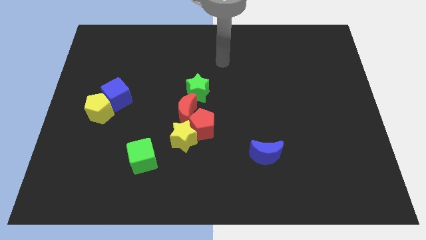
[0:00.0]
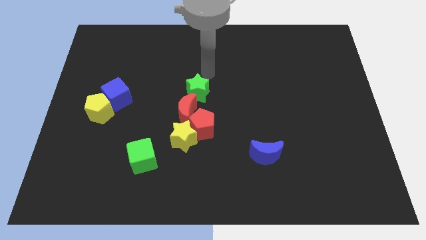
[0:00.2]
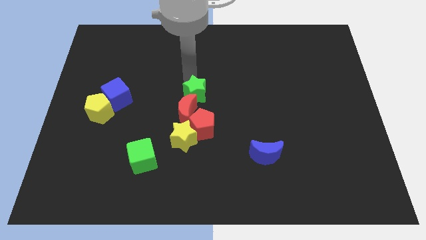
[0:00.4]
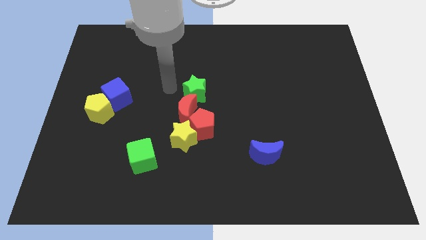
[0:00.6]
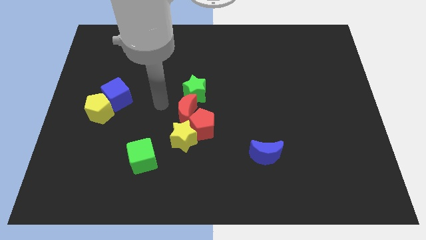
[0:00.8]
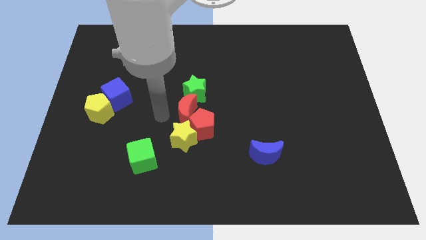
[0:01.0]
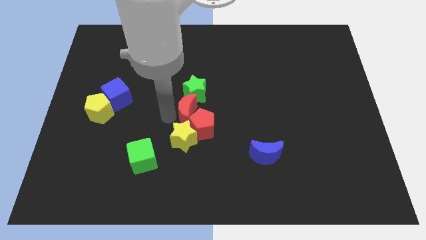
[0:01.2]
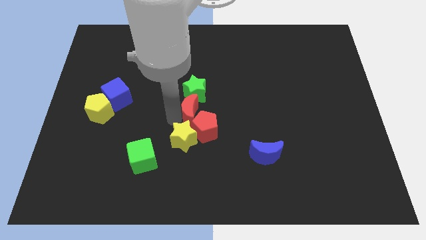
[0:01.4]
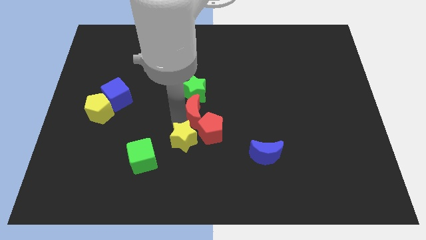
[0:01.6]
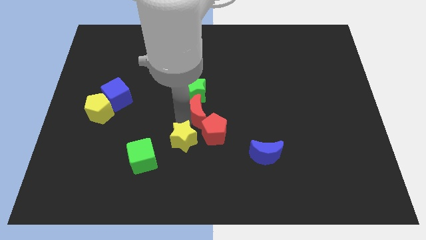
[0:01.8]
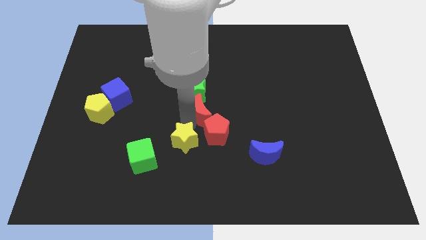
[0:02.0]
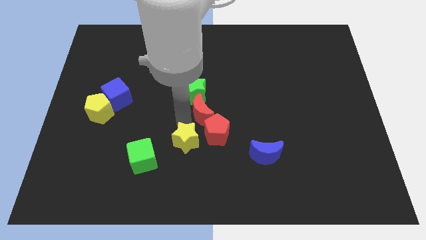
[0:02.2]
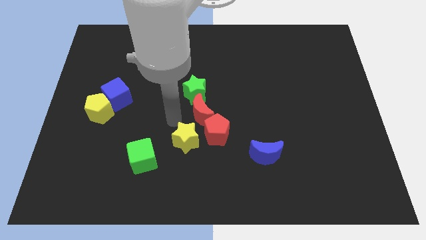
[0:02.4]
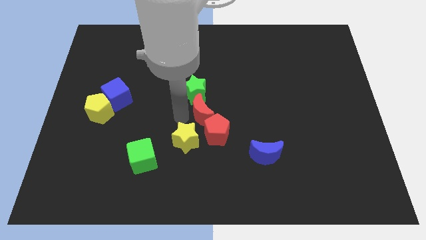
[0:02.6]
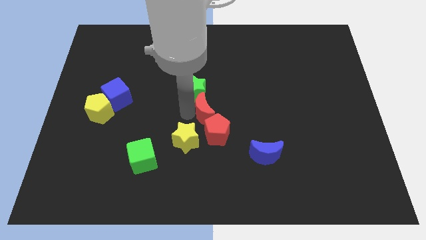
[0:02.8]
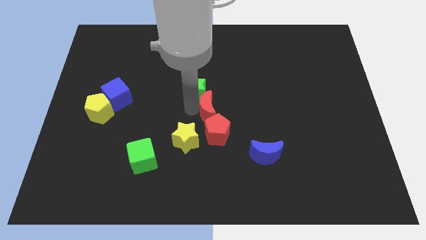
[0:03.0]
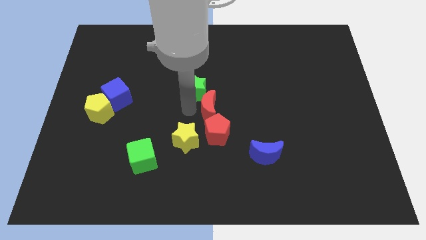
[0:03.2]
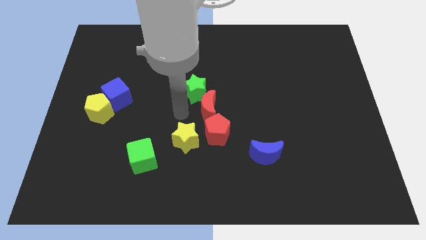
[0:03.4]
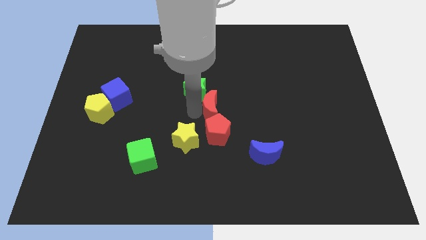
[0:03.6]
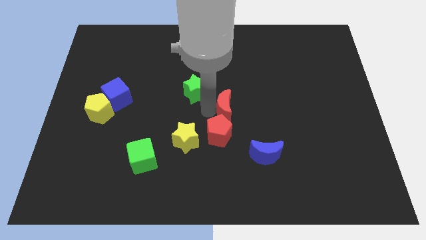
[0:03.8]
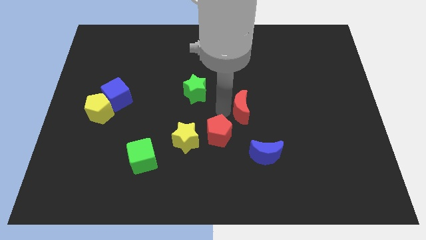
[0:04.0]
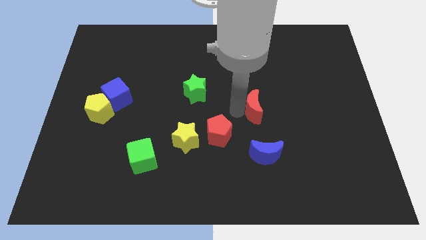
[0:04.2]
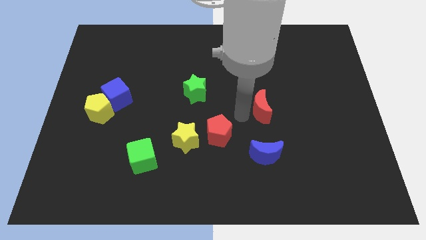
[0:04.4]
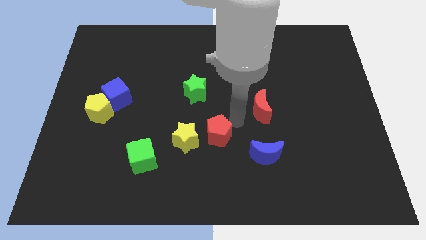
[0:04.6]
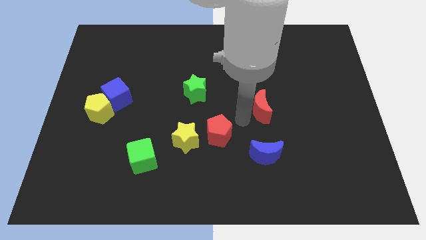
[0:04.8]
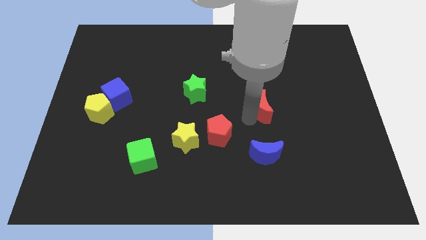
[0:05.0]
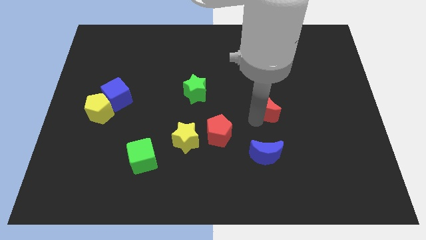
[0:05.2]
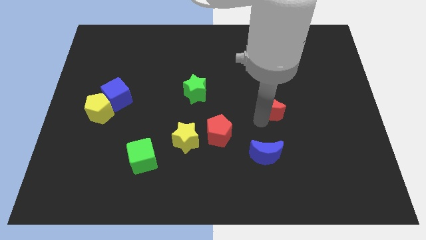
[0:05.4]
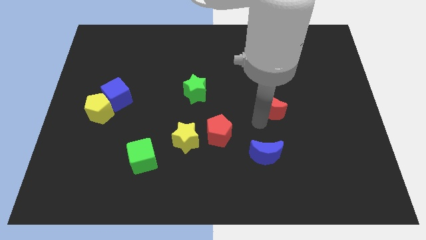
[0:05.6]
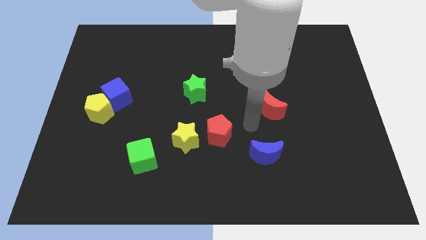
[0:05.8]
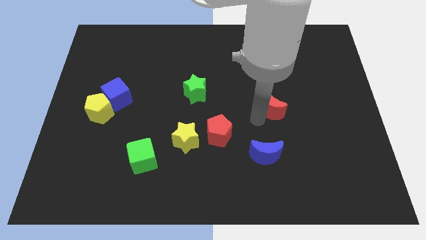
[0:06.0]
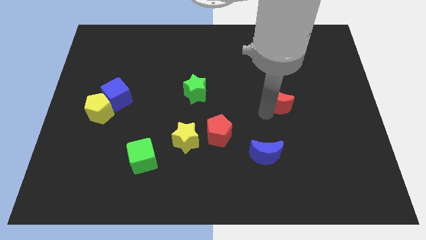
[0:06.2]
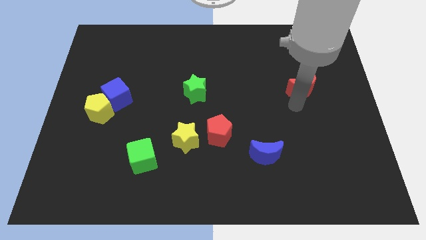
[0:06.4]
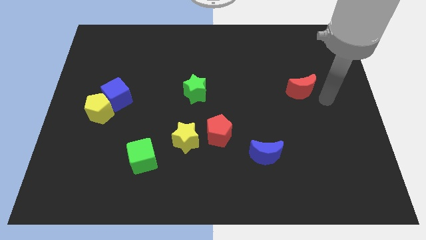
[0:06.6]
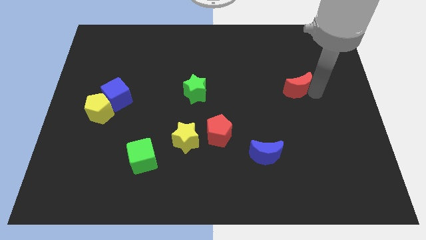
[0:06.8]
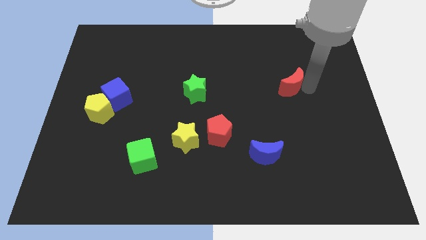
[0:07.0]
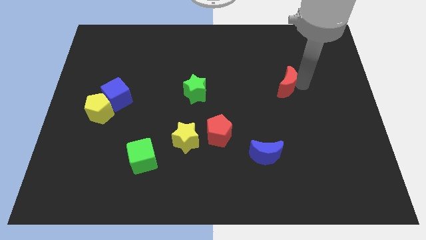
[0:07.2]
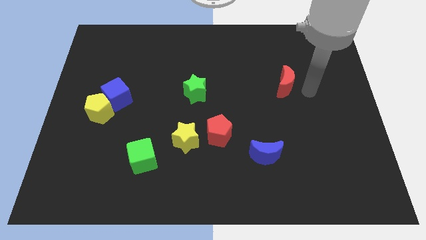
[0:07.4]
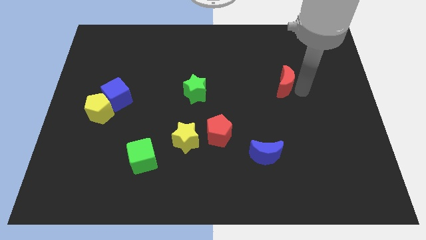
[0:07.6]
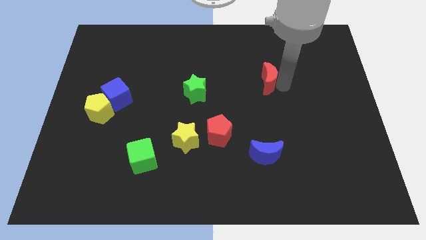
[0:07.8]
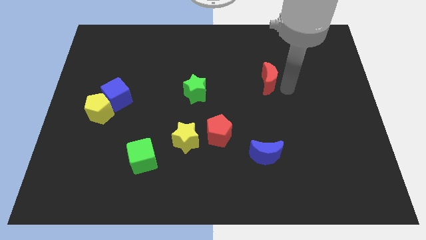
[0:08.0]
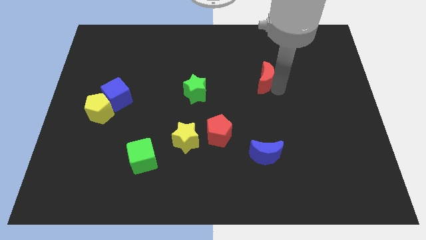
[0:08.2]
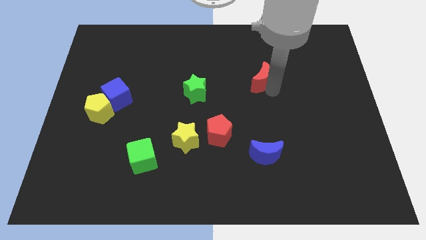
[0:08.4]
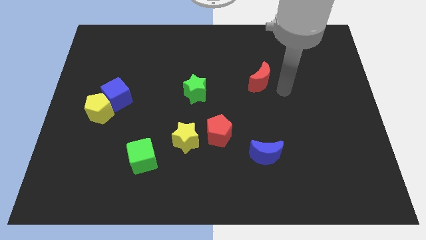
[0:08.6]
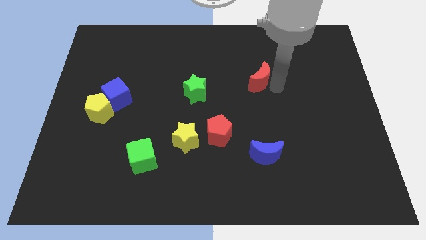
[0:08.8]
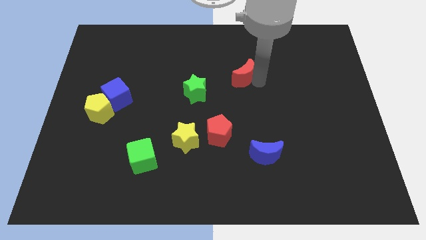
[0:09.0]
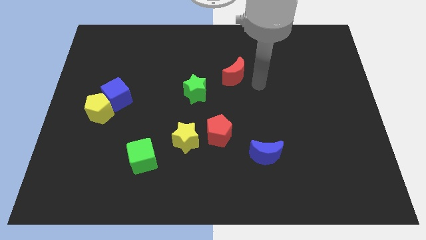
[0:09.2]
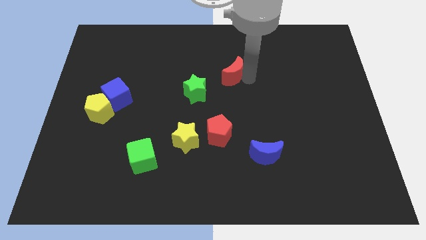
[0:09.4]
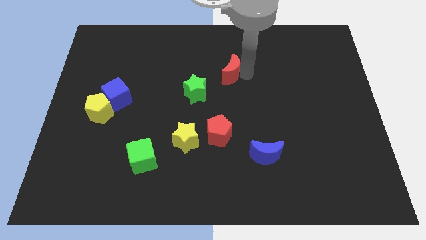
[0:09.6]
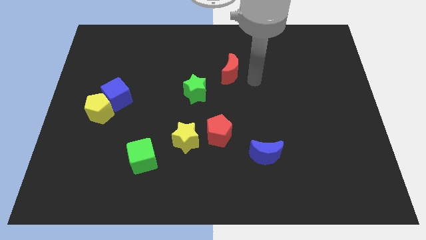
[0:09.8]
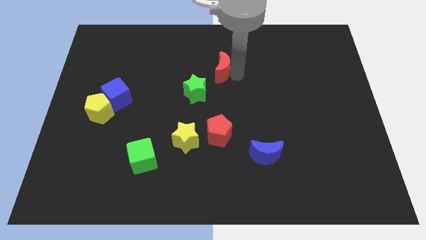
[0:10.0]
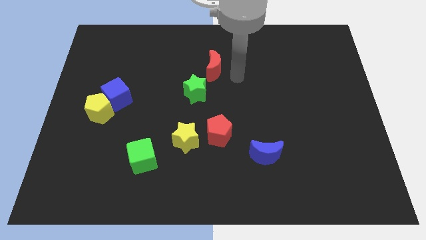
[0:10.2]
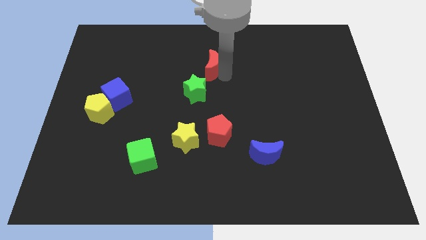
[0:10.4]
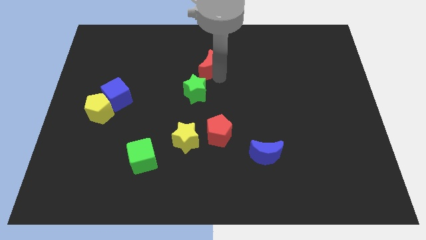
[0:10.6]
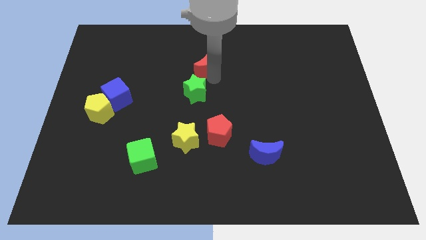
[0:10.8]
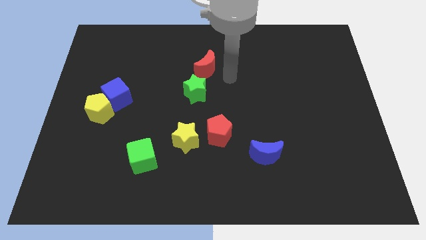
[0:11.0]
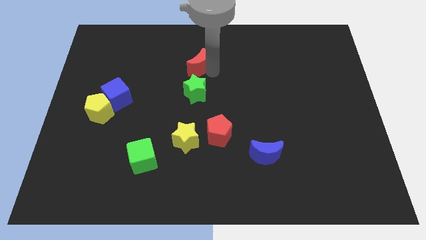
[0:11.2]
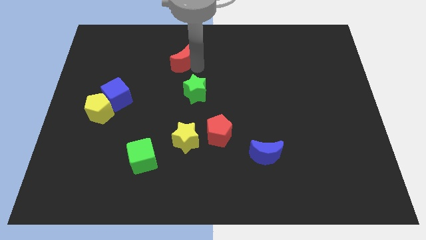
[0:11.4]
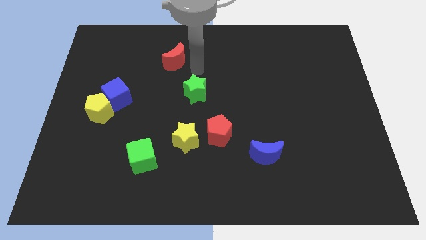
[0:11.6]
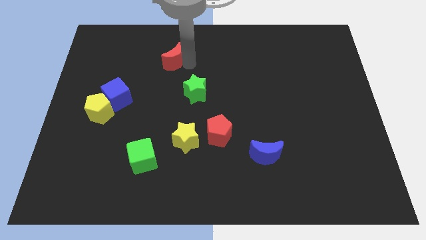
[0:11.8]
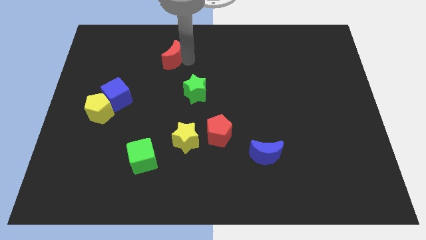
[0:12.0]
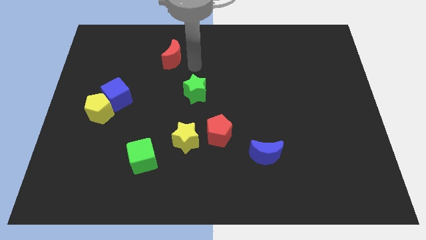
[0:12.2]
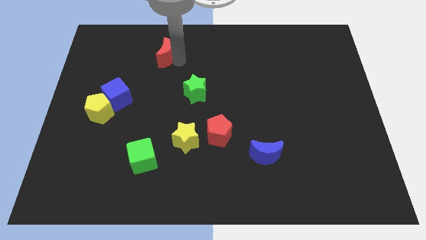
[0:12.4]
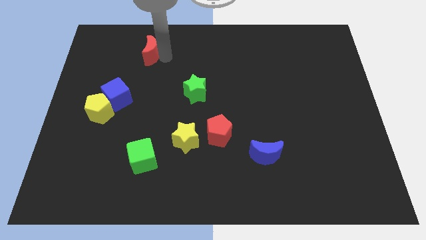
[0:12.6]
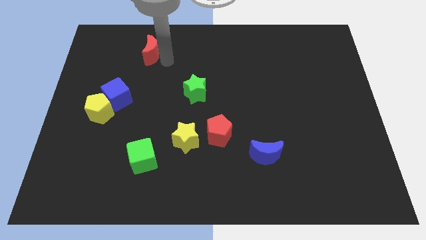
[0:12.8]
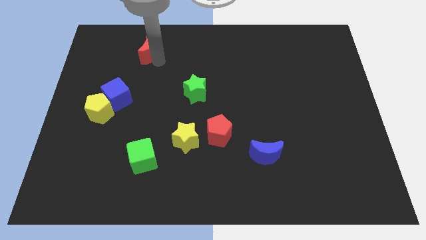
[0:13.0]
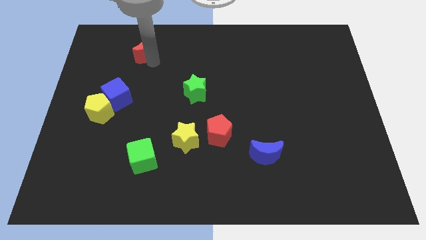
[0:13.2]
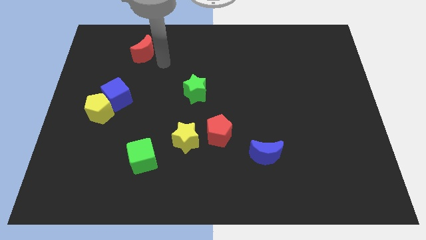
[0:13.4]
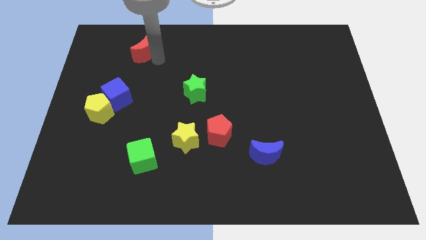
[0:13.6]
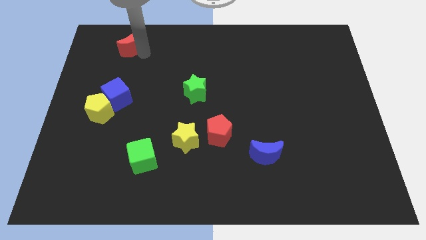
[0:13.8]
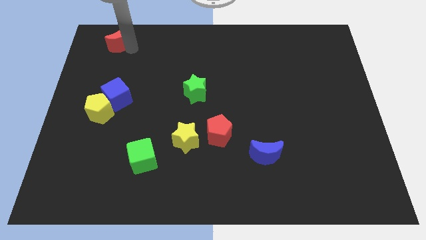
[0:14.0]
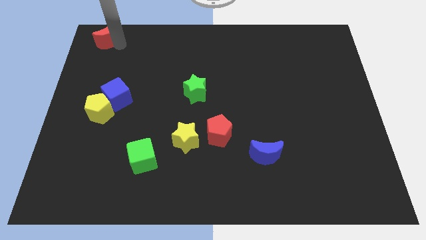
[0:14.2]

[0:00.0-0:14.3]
put the red moon to the top left corner
